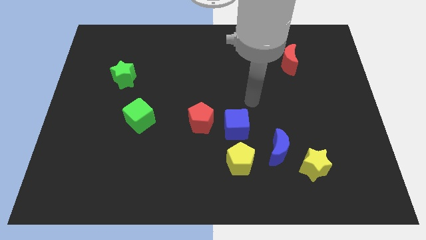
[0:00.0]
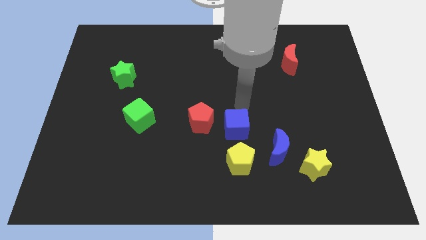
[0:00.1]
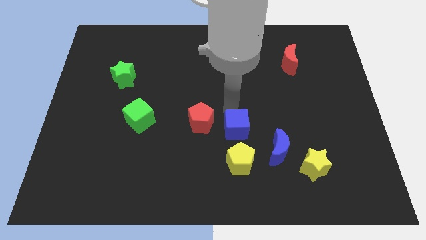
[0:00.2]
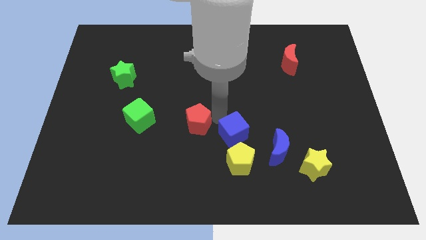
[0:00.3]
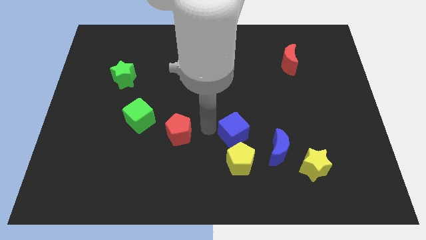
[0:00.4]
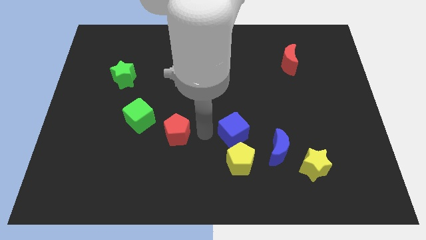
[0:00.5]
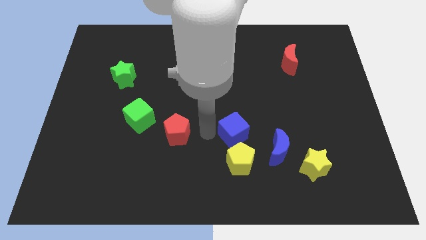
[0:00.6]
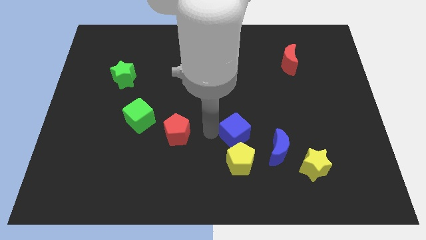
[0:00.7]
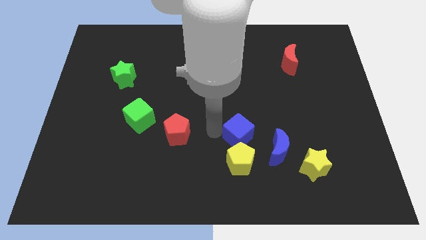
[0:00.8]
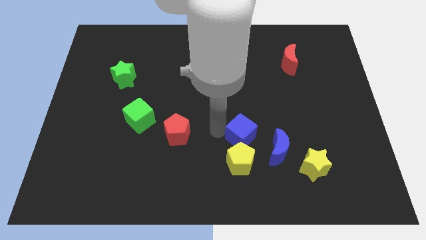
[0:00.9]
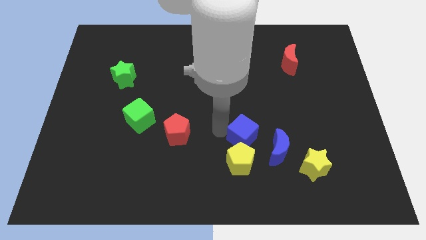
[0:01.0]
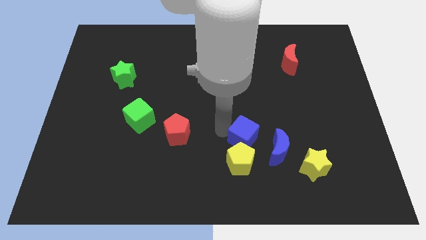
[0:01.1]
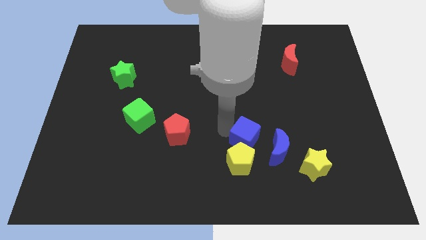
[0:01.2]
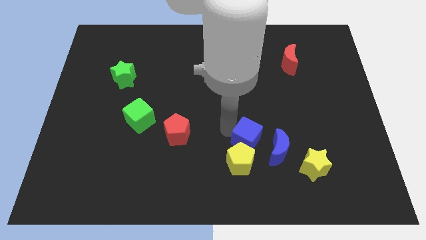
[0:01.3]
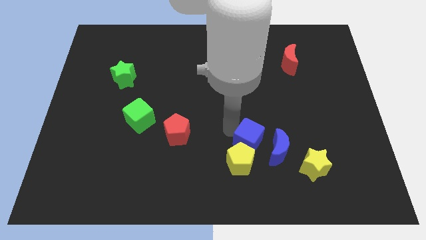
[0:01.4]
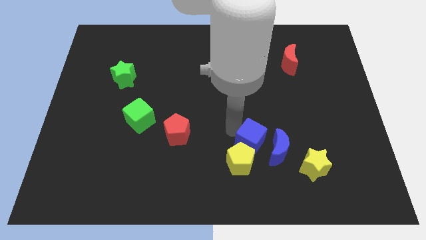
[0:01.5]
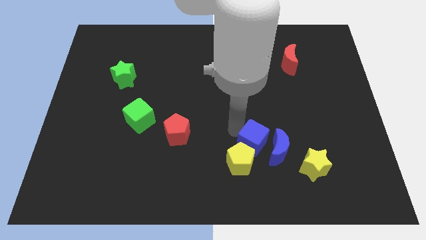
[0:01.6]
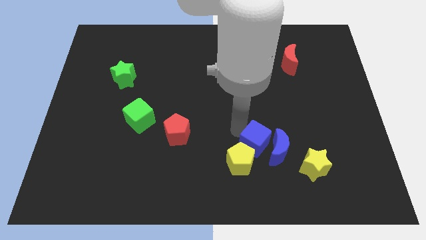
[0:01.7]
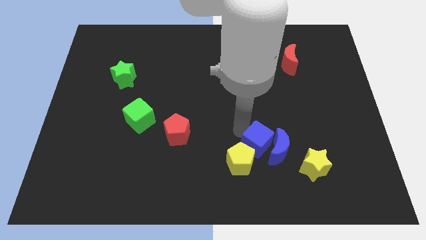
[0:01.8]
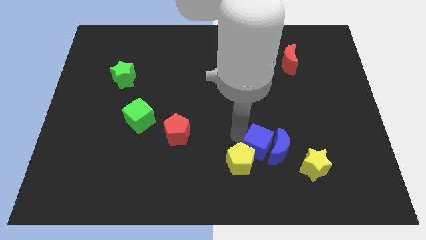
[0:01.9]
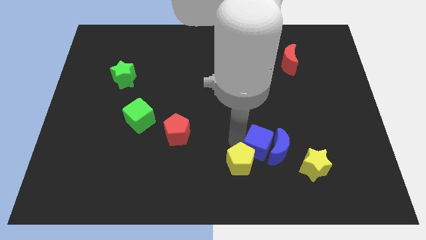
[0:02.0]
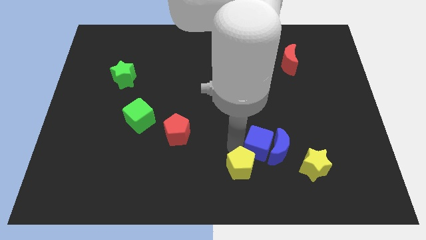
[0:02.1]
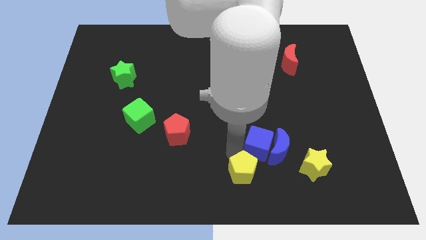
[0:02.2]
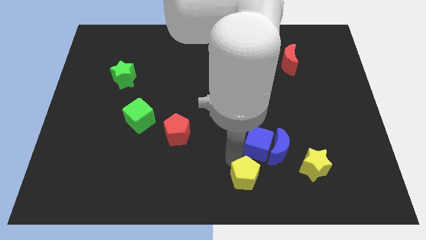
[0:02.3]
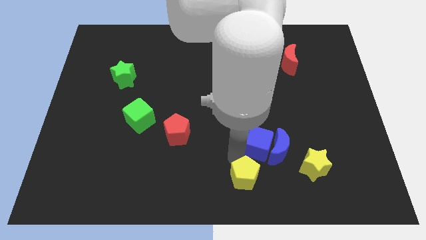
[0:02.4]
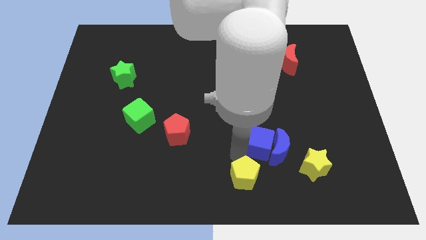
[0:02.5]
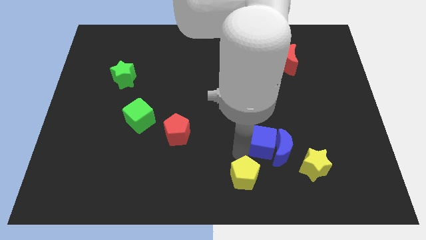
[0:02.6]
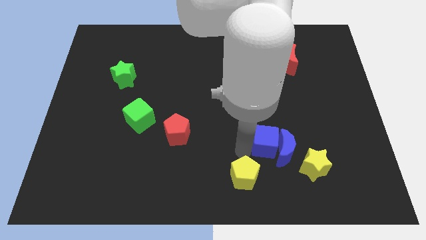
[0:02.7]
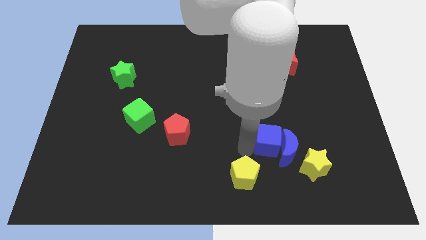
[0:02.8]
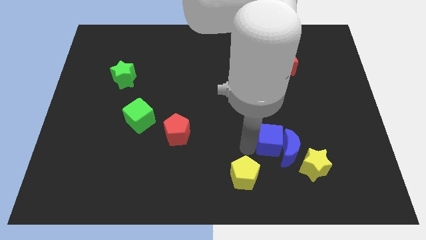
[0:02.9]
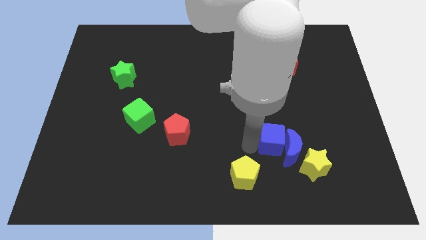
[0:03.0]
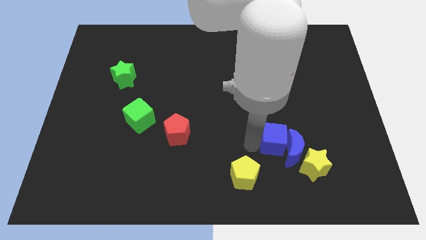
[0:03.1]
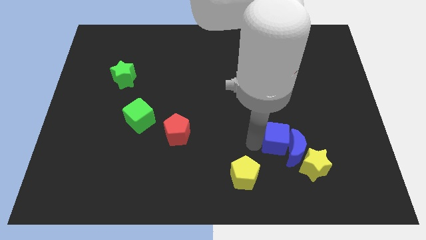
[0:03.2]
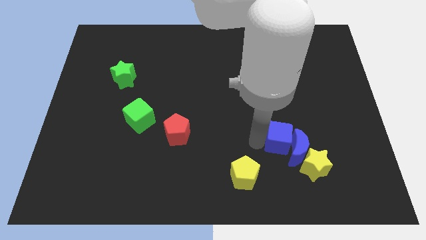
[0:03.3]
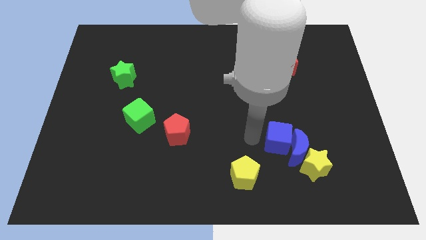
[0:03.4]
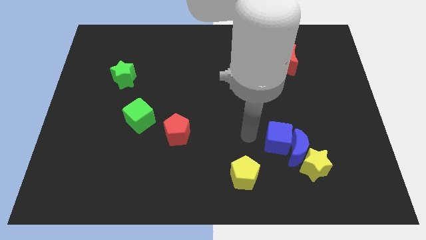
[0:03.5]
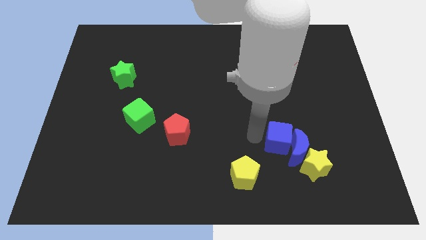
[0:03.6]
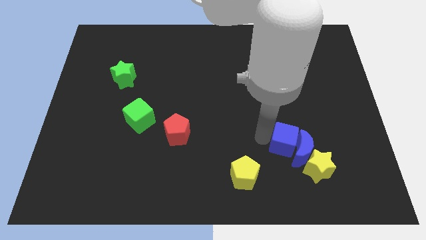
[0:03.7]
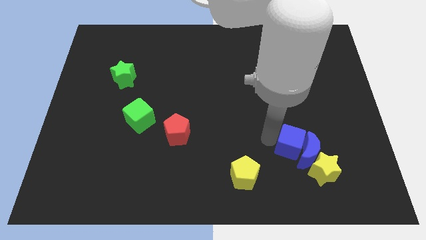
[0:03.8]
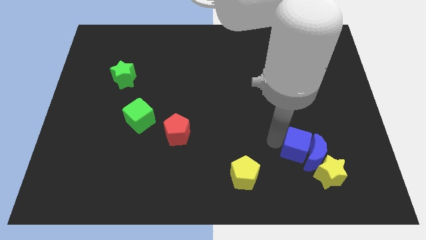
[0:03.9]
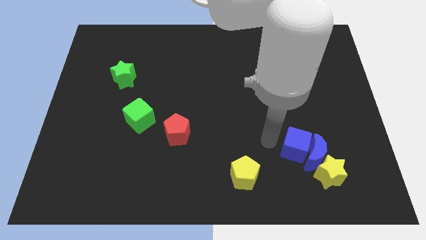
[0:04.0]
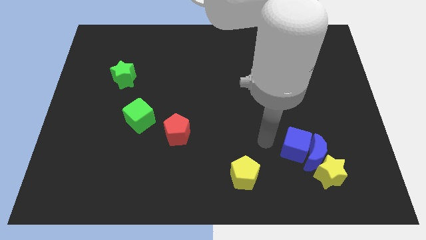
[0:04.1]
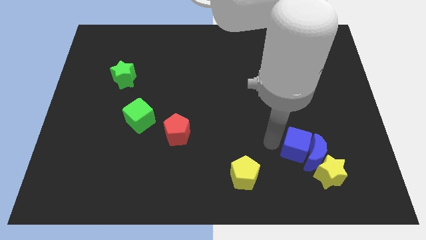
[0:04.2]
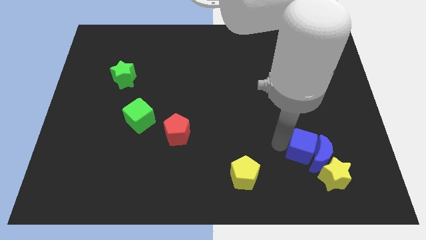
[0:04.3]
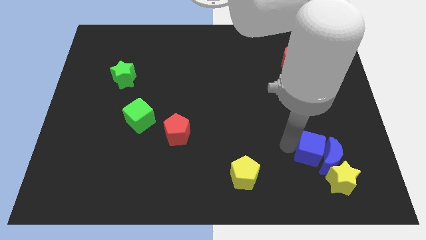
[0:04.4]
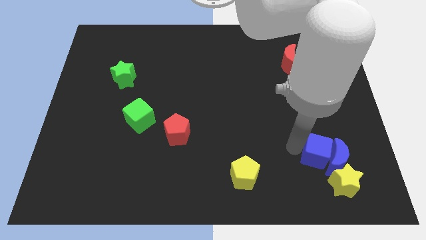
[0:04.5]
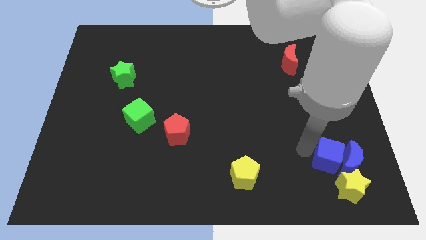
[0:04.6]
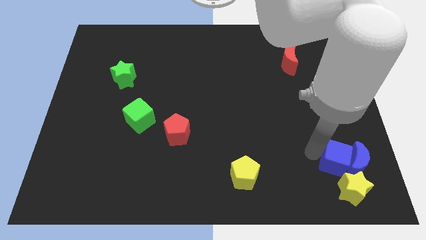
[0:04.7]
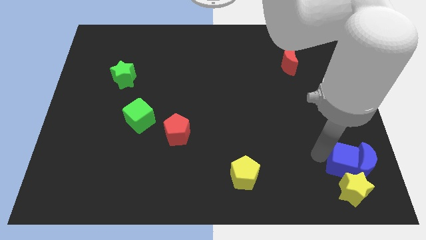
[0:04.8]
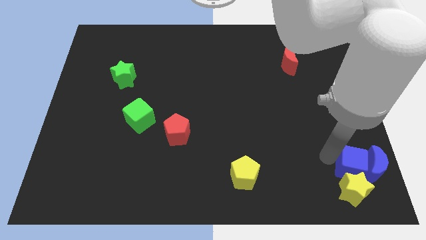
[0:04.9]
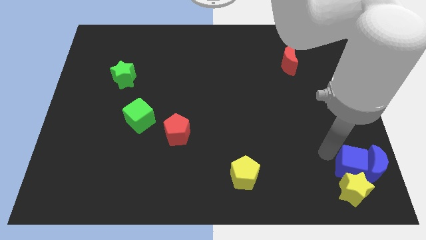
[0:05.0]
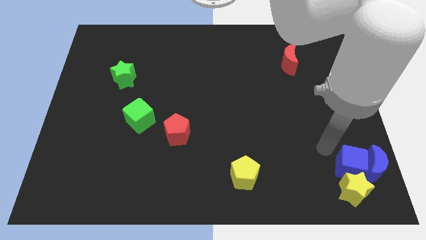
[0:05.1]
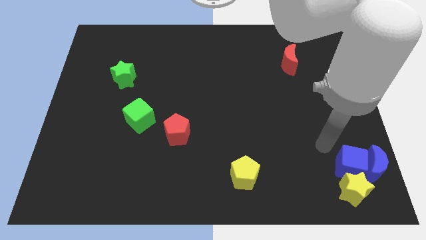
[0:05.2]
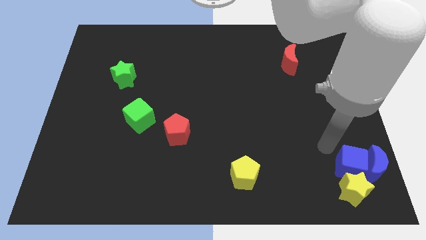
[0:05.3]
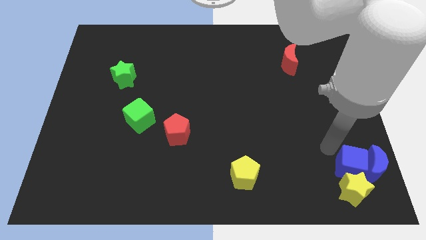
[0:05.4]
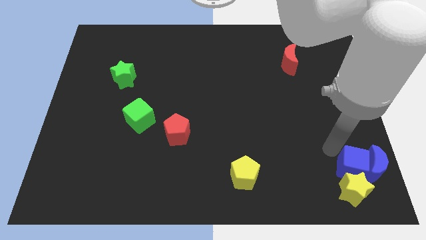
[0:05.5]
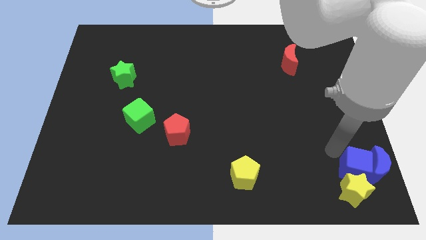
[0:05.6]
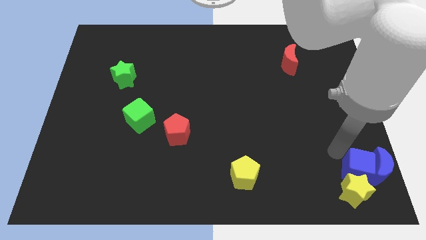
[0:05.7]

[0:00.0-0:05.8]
slide the blue cube to the bottom right corner

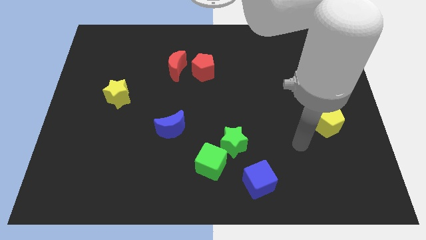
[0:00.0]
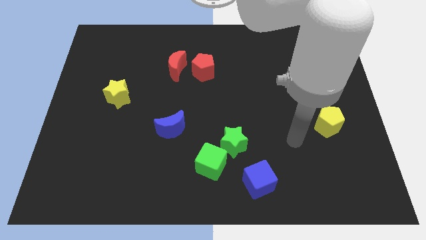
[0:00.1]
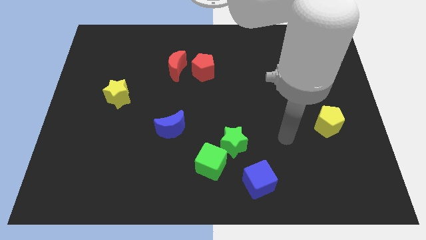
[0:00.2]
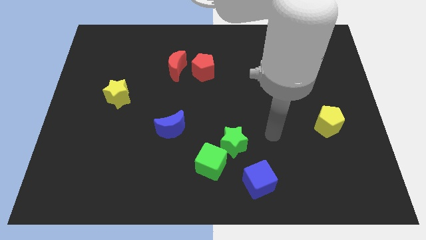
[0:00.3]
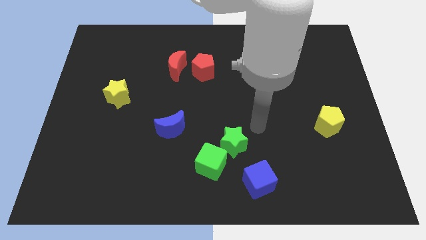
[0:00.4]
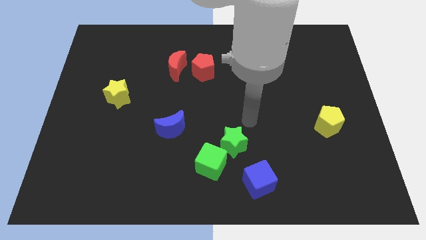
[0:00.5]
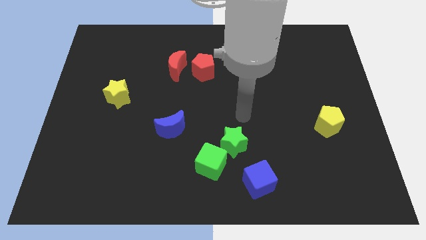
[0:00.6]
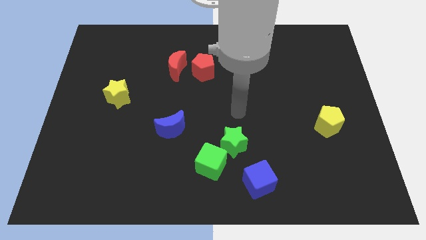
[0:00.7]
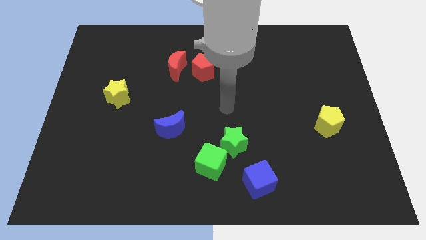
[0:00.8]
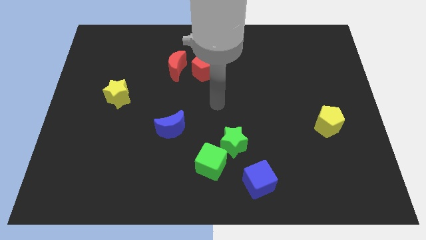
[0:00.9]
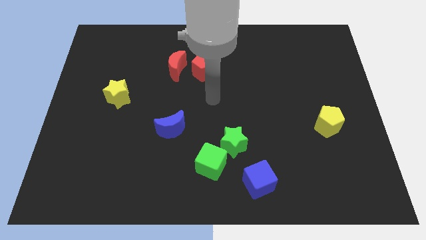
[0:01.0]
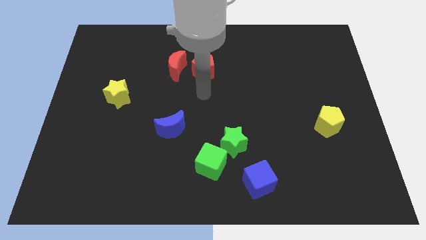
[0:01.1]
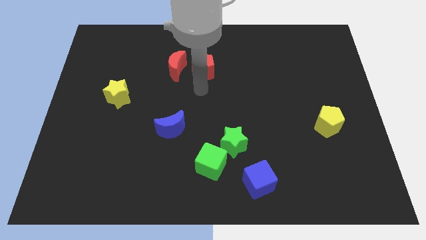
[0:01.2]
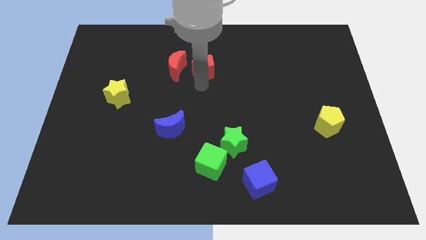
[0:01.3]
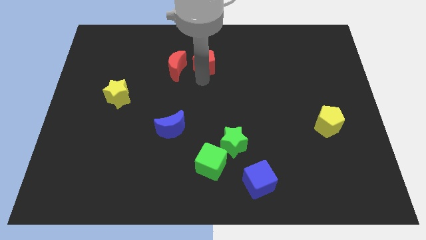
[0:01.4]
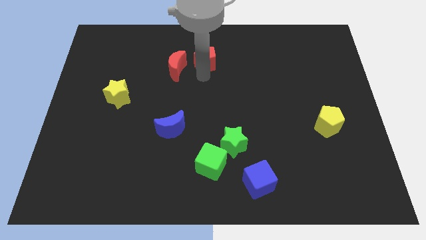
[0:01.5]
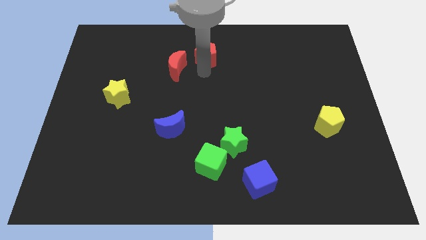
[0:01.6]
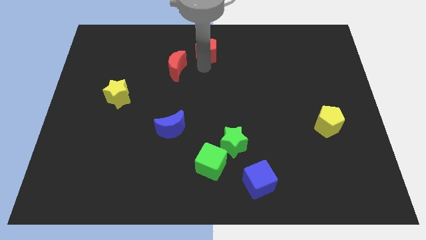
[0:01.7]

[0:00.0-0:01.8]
slide the red pentagon to the top
